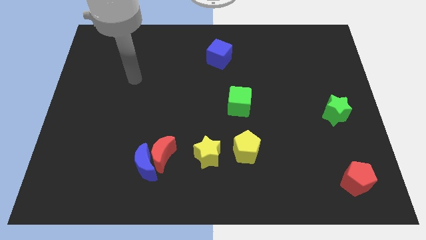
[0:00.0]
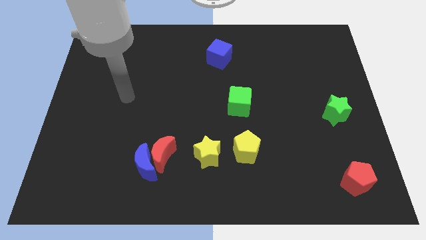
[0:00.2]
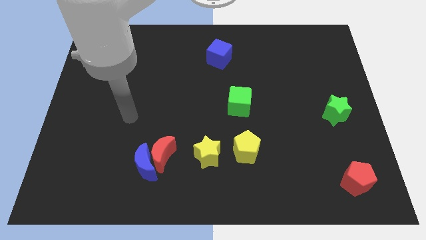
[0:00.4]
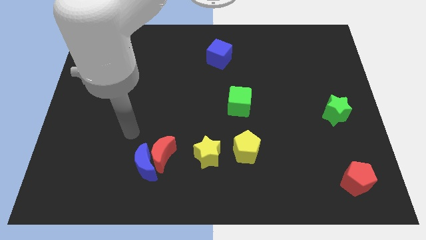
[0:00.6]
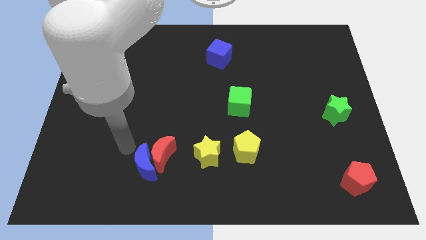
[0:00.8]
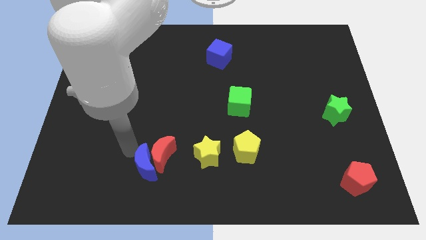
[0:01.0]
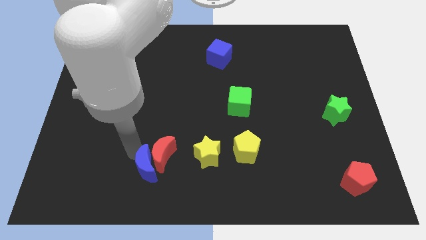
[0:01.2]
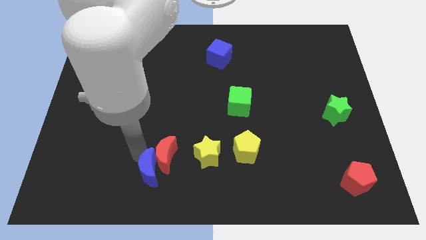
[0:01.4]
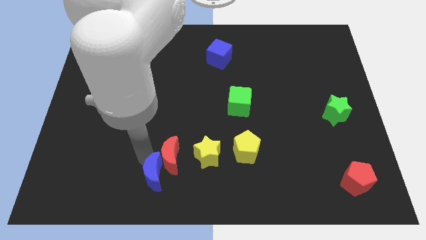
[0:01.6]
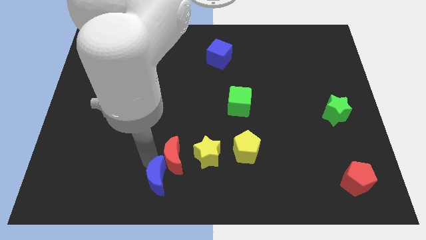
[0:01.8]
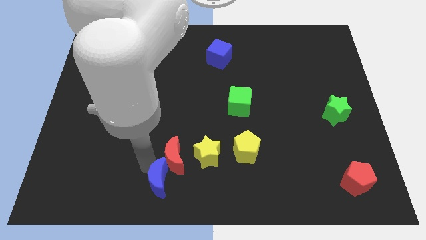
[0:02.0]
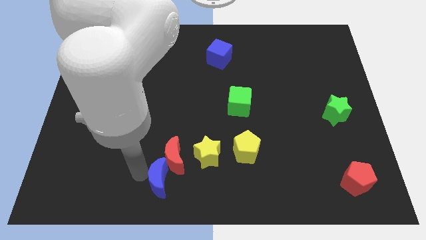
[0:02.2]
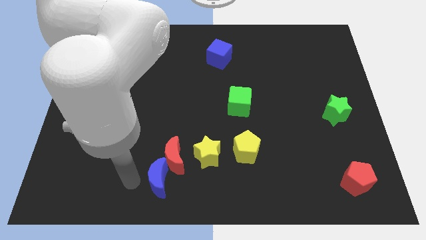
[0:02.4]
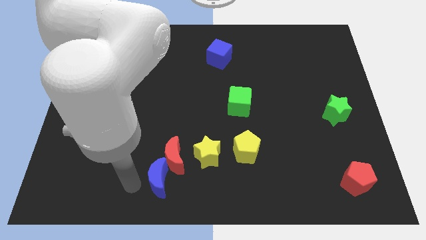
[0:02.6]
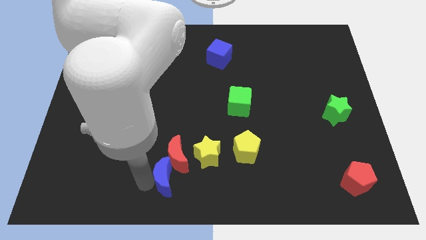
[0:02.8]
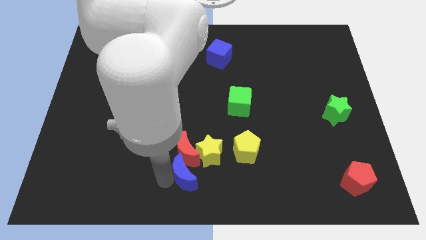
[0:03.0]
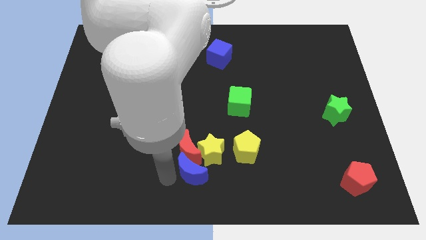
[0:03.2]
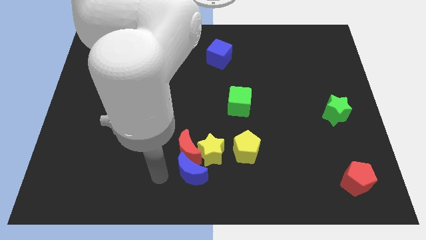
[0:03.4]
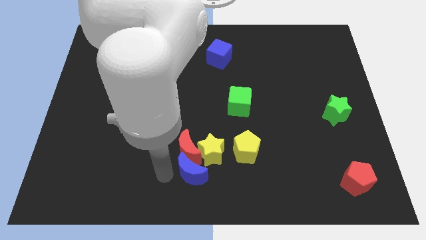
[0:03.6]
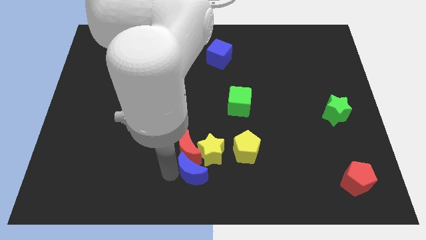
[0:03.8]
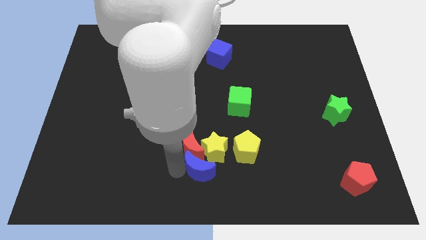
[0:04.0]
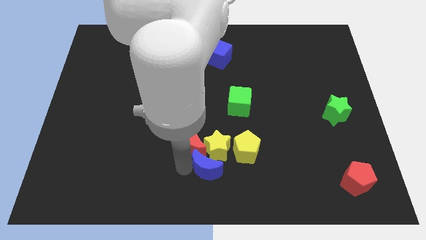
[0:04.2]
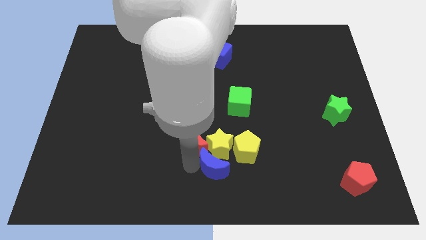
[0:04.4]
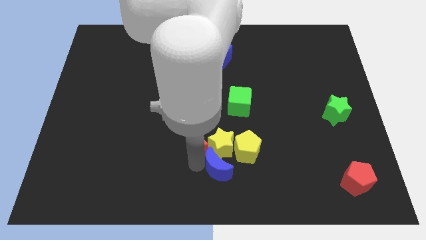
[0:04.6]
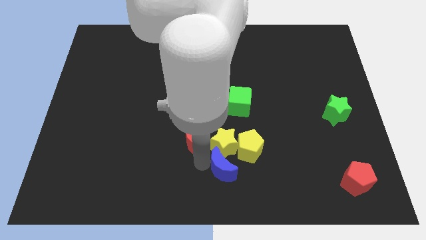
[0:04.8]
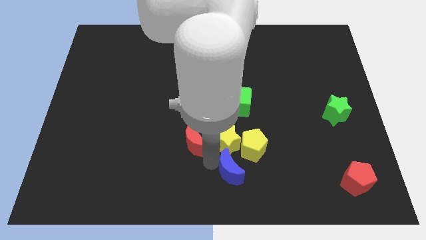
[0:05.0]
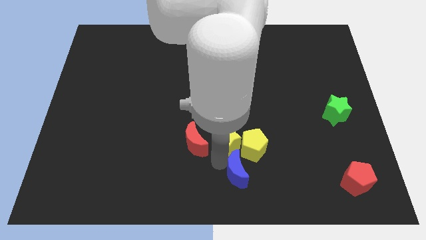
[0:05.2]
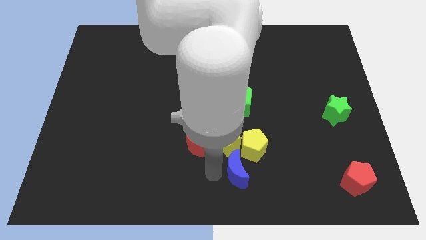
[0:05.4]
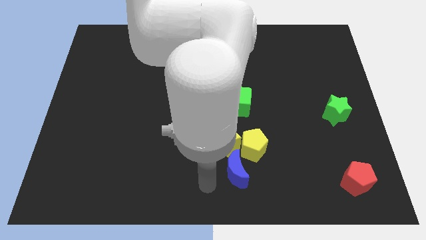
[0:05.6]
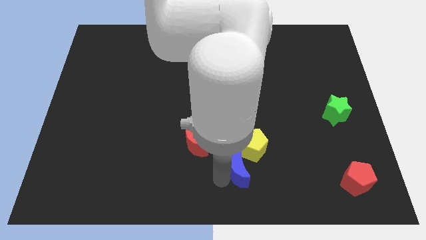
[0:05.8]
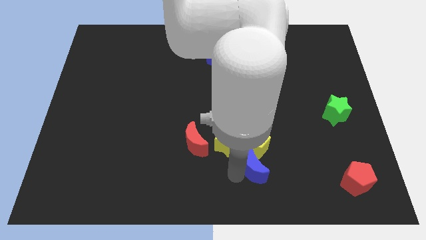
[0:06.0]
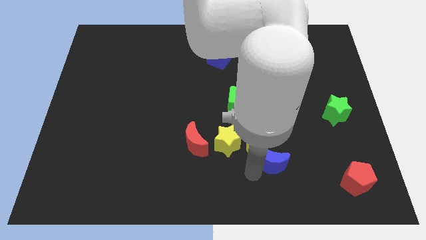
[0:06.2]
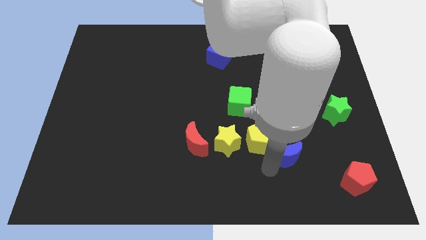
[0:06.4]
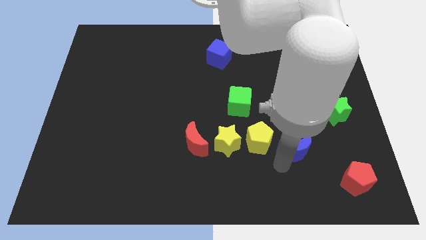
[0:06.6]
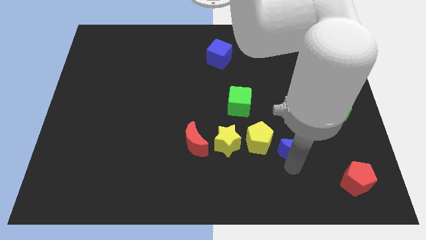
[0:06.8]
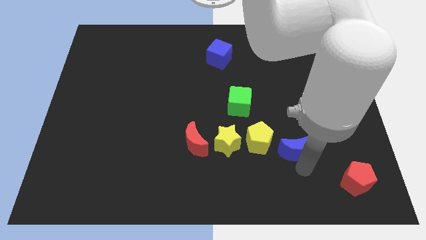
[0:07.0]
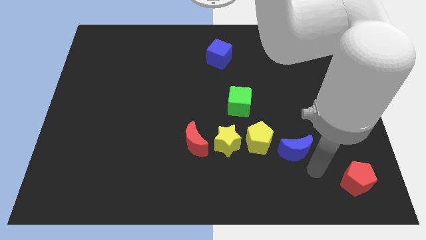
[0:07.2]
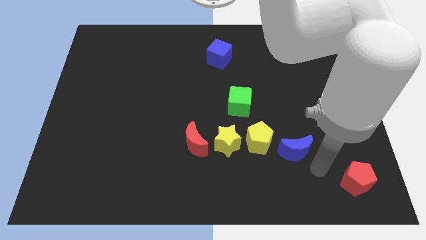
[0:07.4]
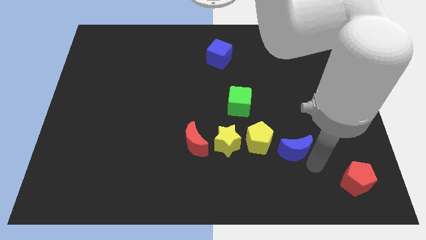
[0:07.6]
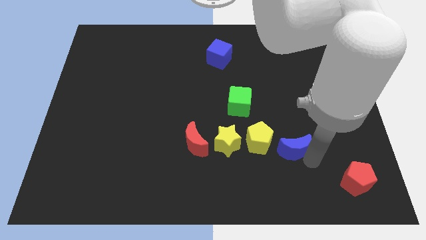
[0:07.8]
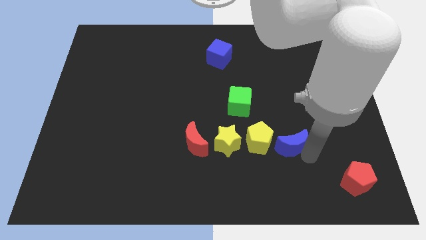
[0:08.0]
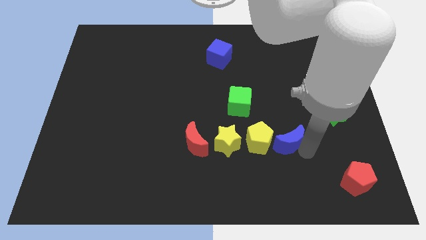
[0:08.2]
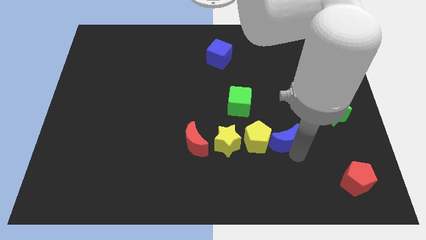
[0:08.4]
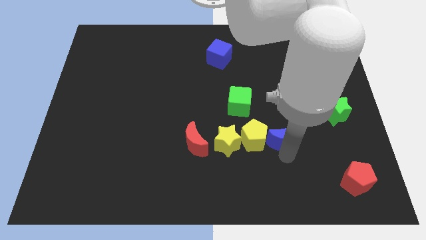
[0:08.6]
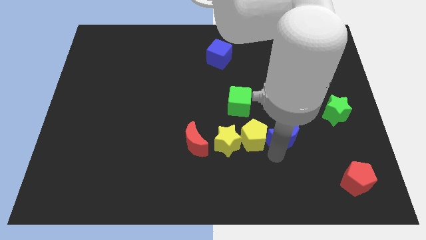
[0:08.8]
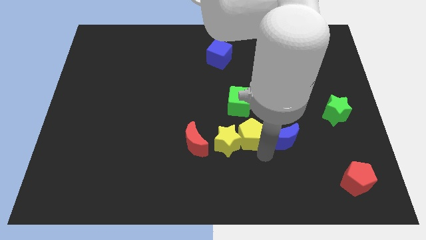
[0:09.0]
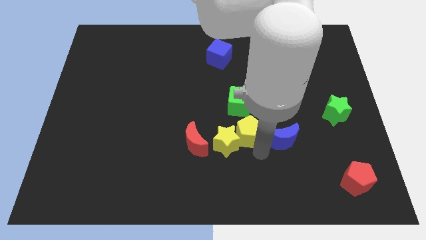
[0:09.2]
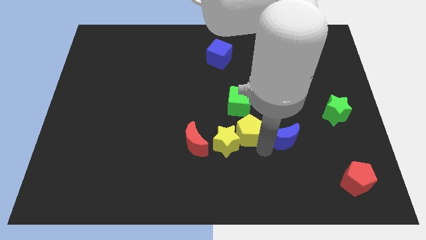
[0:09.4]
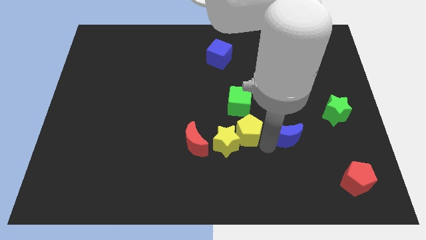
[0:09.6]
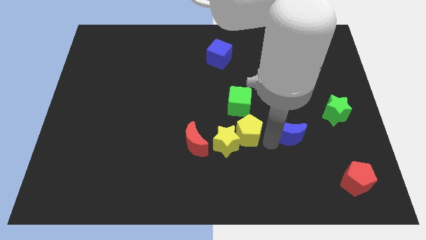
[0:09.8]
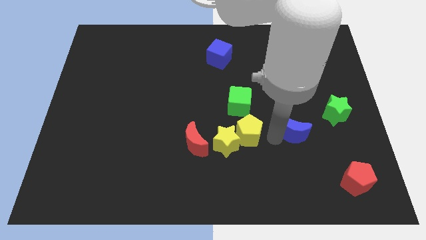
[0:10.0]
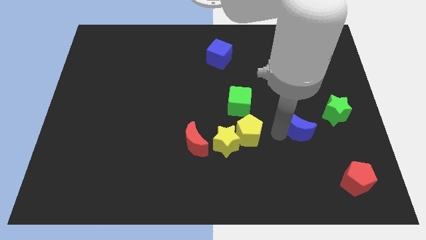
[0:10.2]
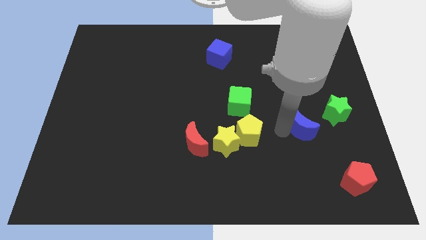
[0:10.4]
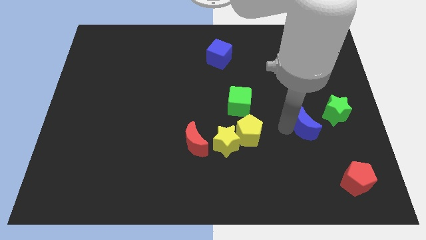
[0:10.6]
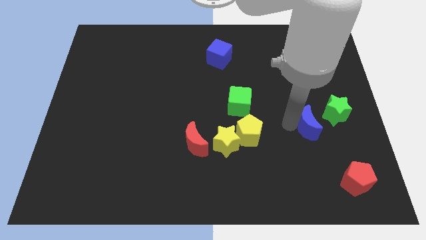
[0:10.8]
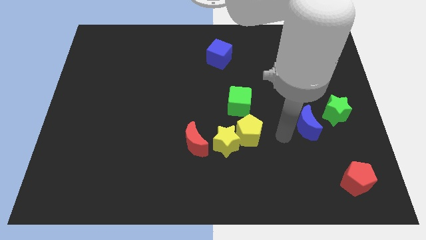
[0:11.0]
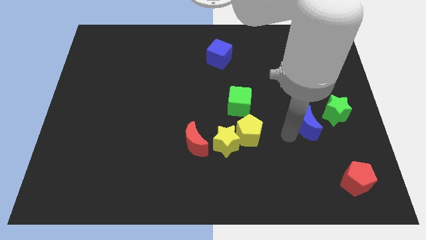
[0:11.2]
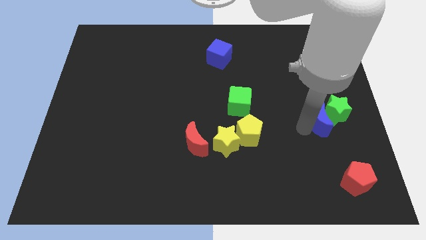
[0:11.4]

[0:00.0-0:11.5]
put the blue moon close to the green star
